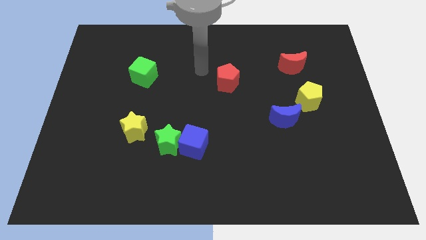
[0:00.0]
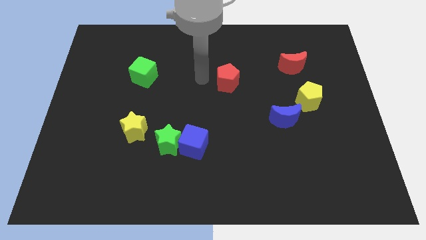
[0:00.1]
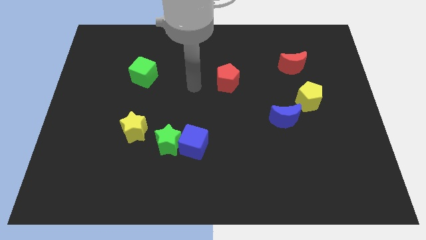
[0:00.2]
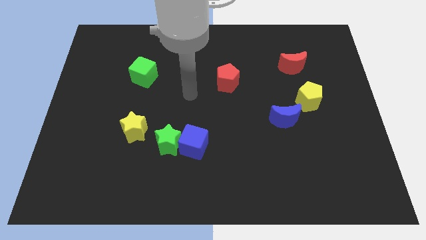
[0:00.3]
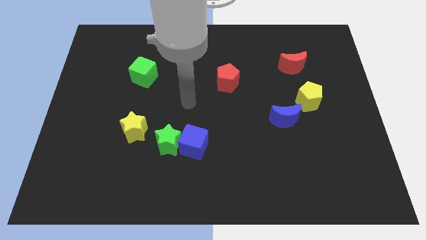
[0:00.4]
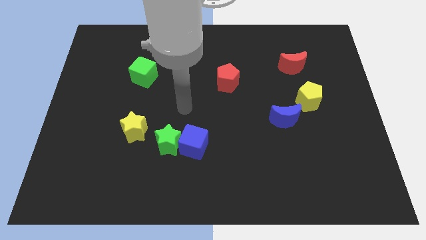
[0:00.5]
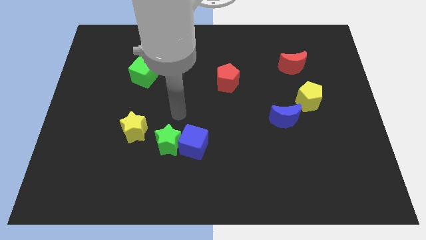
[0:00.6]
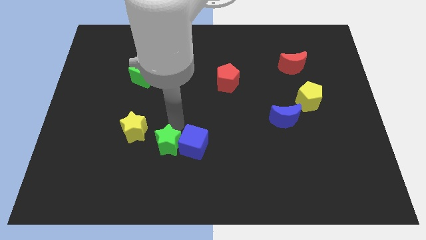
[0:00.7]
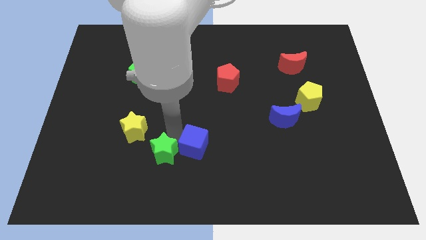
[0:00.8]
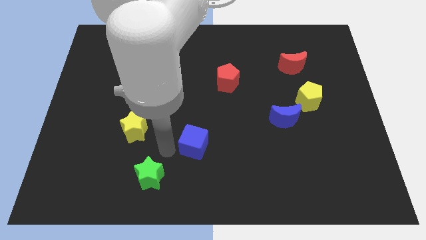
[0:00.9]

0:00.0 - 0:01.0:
separate the blue cube from the green star

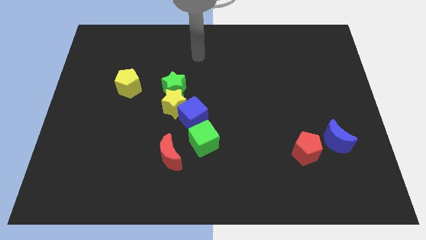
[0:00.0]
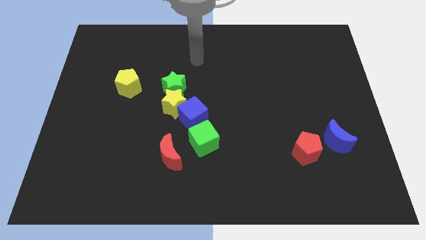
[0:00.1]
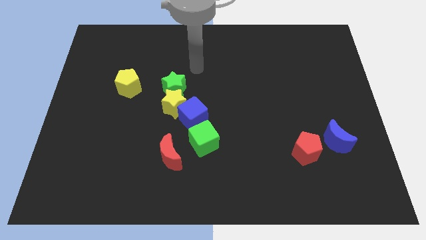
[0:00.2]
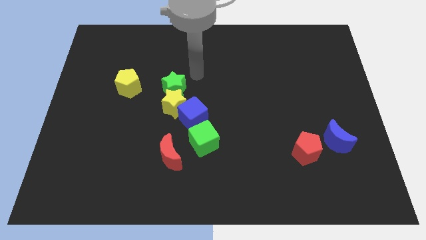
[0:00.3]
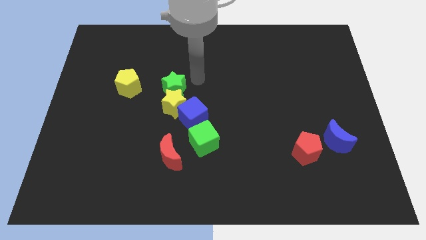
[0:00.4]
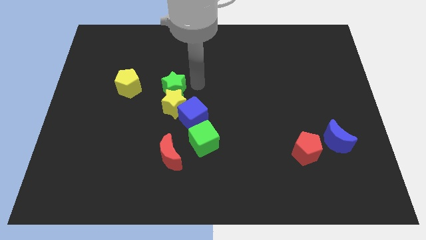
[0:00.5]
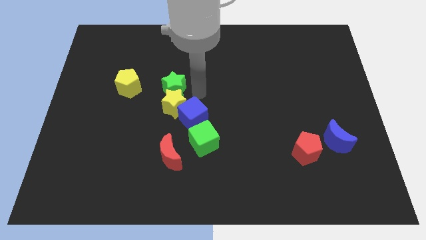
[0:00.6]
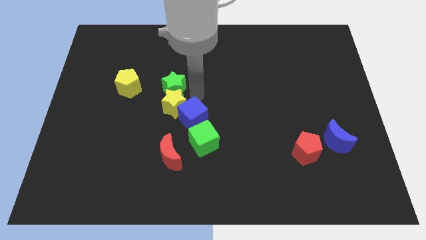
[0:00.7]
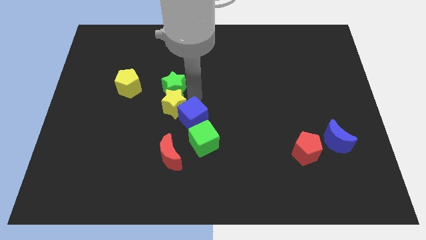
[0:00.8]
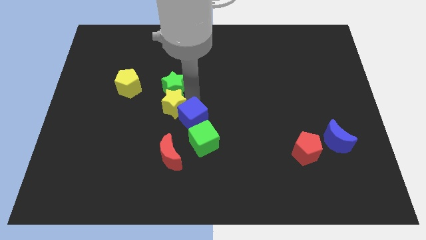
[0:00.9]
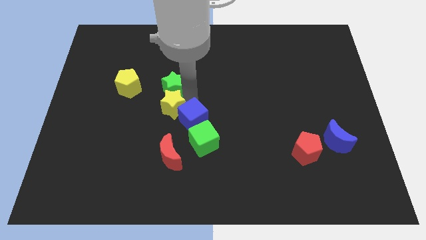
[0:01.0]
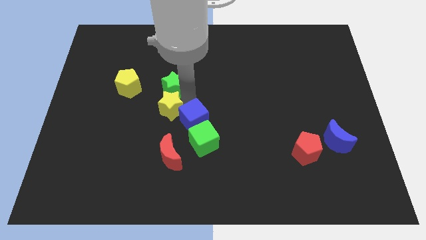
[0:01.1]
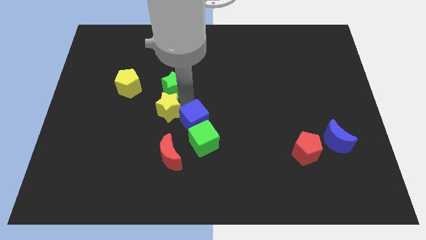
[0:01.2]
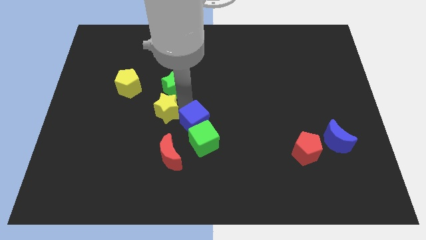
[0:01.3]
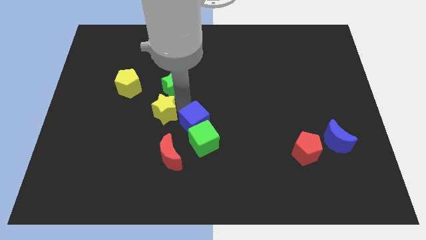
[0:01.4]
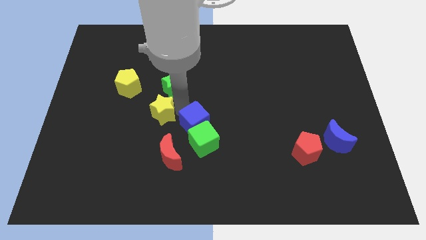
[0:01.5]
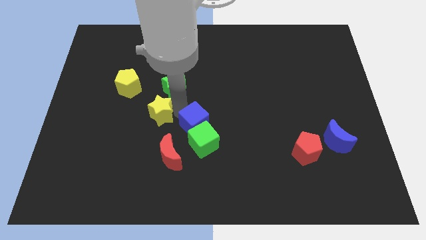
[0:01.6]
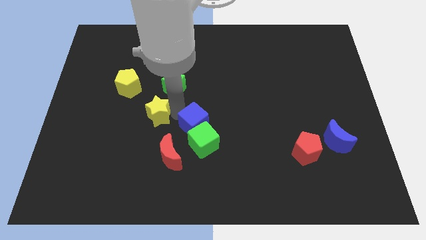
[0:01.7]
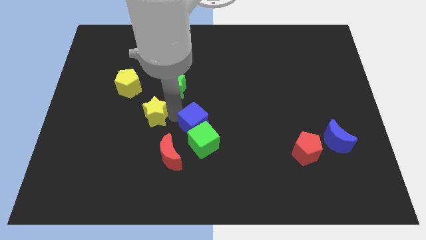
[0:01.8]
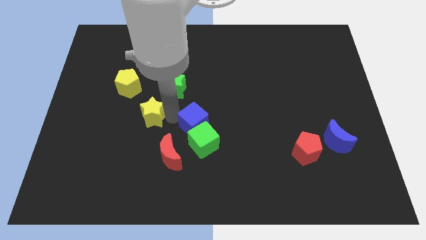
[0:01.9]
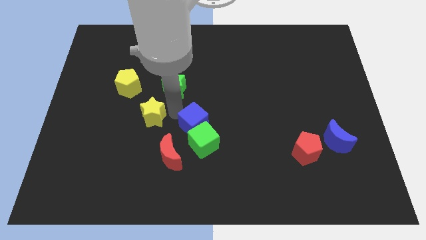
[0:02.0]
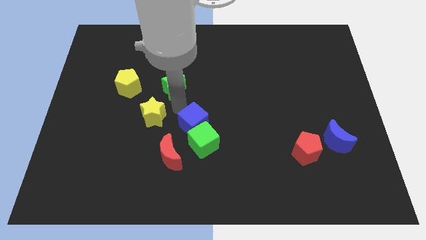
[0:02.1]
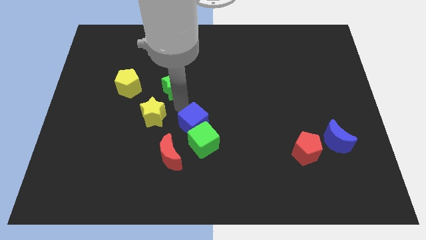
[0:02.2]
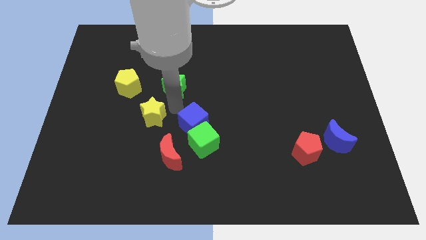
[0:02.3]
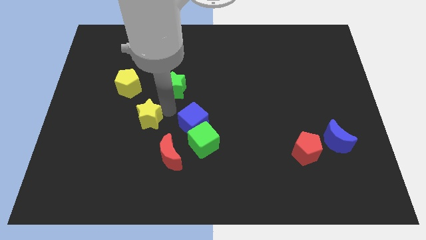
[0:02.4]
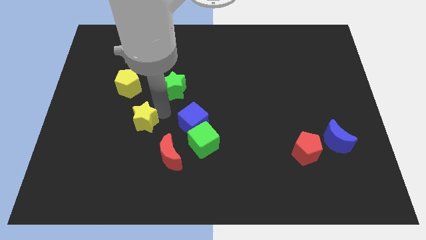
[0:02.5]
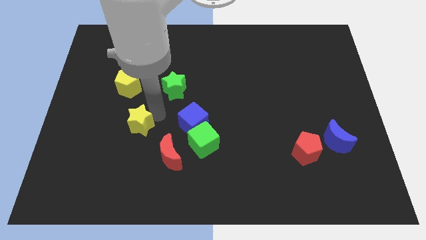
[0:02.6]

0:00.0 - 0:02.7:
separate the yellow star from the green star and blue cube

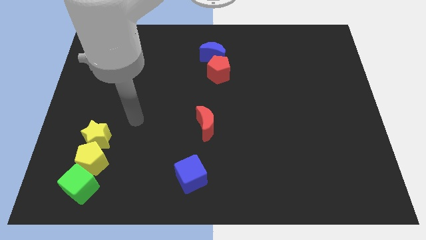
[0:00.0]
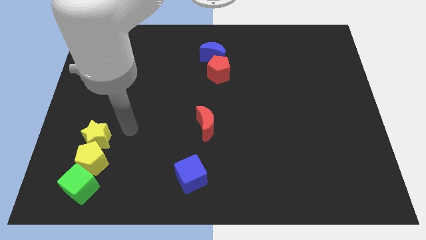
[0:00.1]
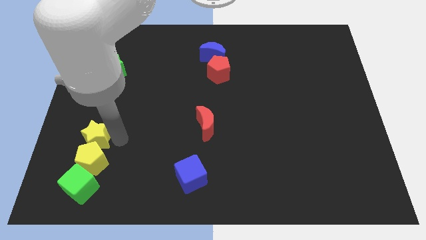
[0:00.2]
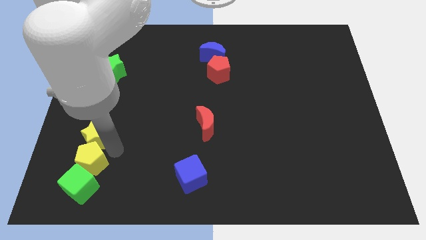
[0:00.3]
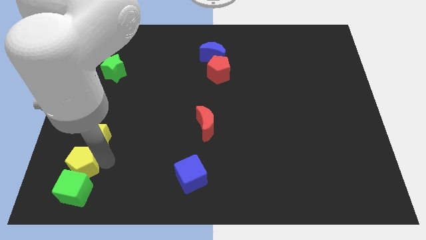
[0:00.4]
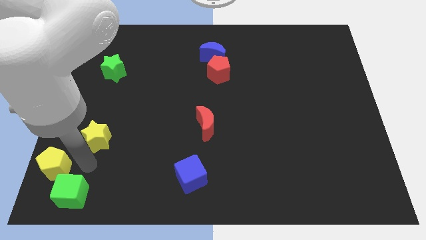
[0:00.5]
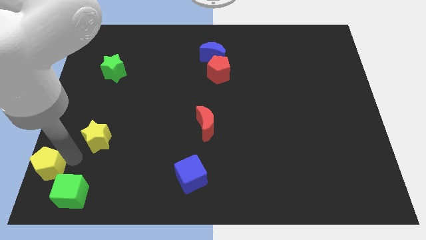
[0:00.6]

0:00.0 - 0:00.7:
move the yellow star away from the yellow pentagon

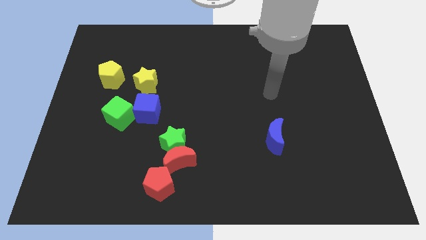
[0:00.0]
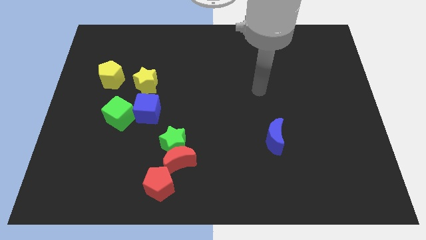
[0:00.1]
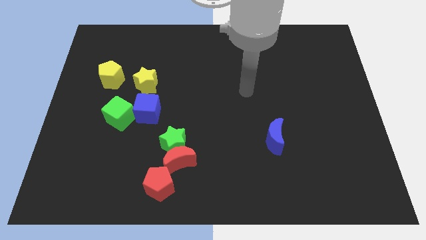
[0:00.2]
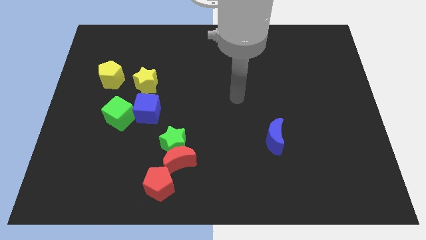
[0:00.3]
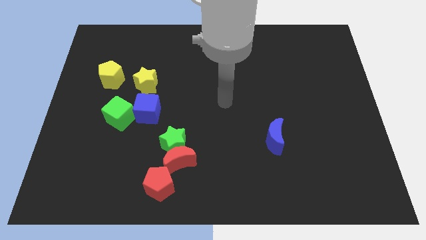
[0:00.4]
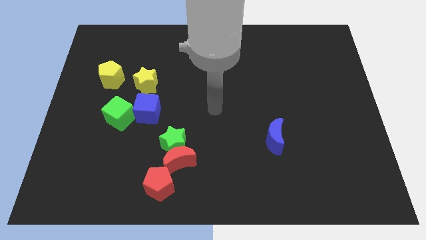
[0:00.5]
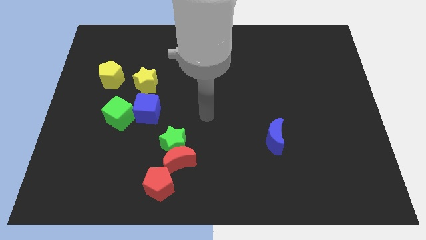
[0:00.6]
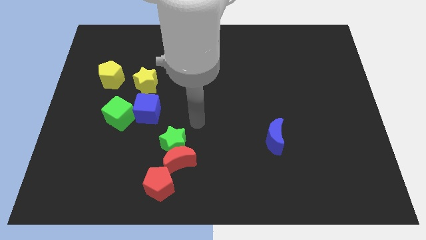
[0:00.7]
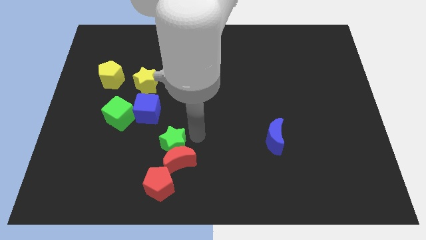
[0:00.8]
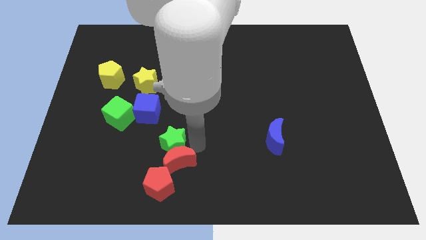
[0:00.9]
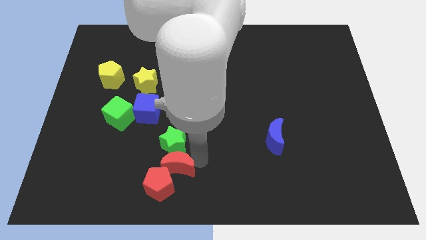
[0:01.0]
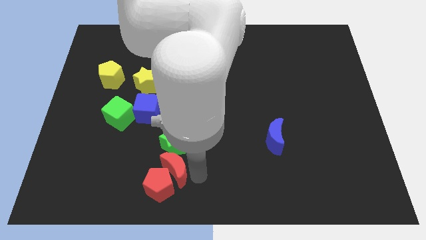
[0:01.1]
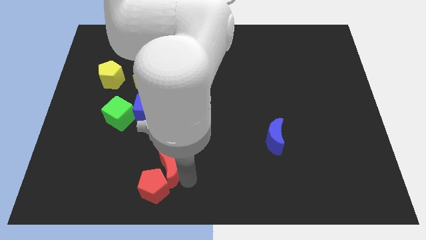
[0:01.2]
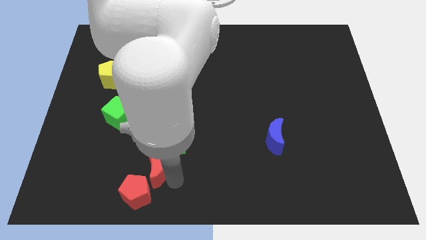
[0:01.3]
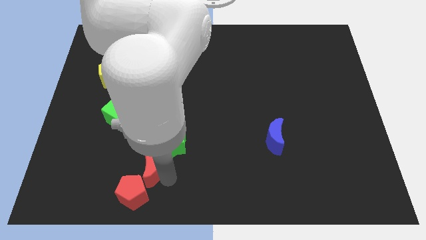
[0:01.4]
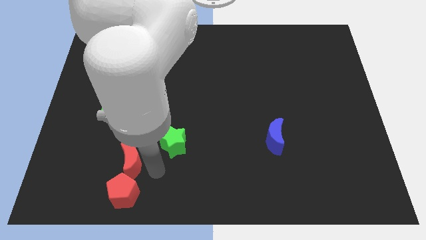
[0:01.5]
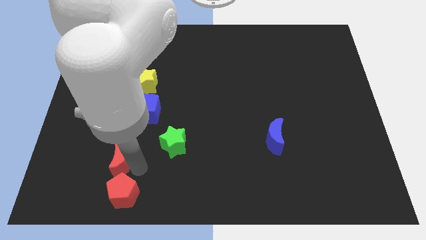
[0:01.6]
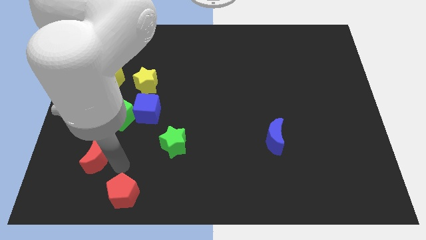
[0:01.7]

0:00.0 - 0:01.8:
pull the red moon apart from the green star and red pentagon

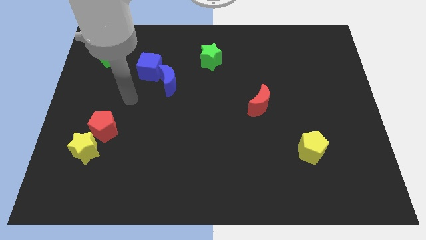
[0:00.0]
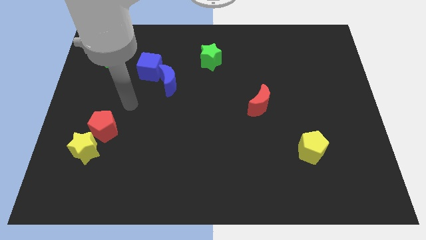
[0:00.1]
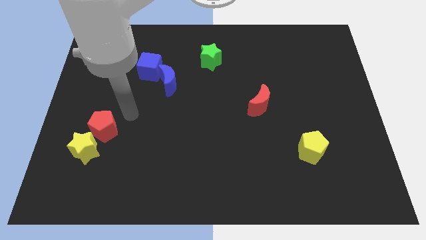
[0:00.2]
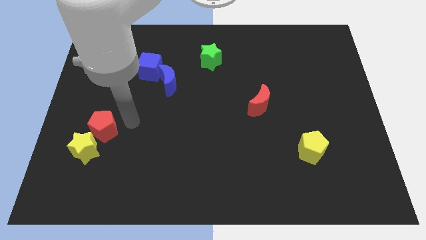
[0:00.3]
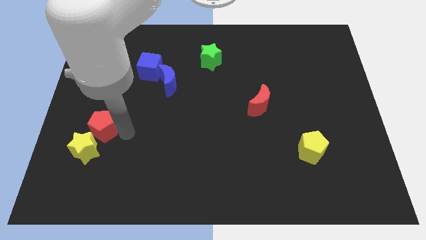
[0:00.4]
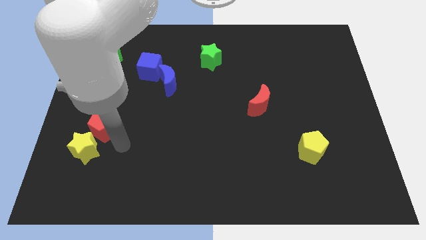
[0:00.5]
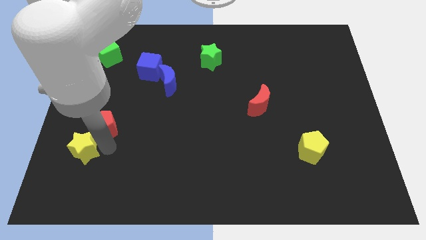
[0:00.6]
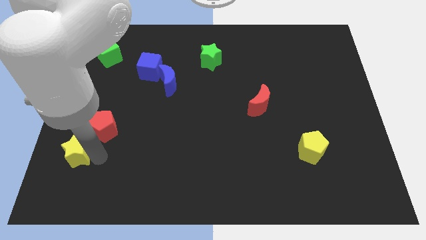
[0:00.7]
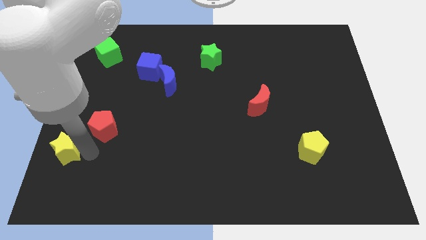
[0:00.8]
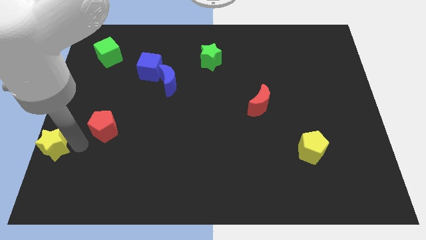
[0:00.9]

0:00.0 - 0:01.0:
pull the red pentagon apart from the yellow star

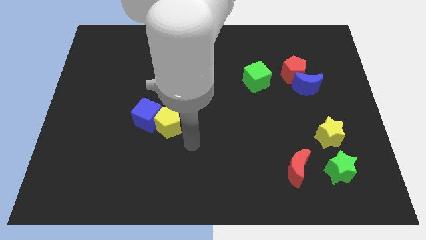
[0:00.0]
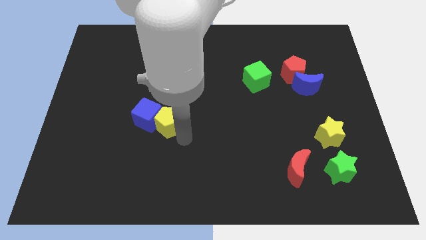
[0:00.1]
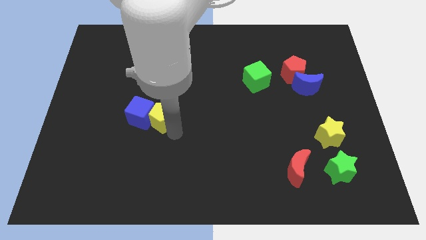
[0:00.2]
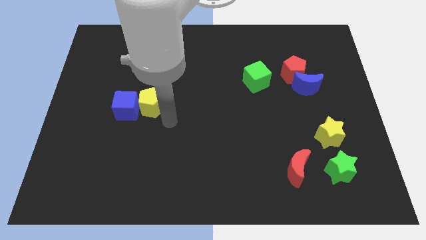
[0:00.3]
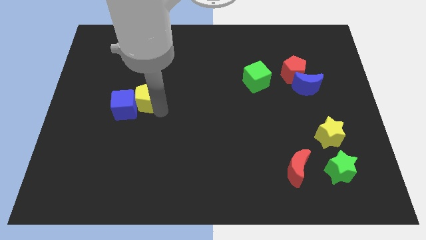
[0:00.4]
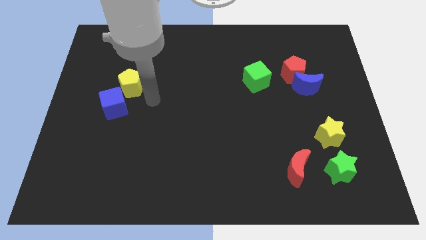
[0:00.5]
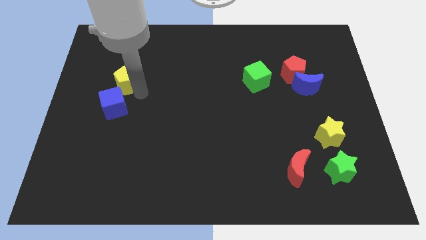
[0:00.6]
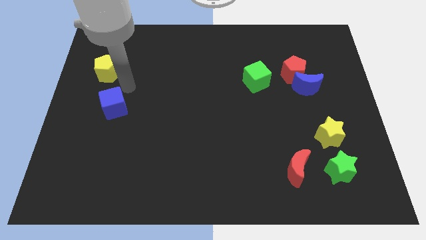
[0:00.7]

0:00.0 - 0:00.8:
separate the blue cube from the yellow pentagon

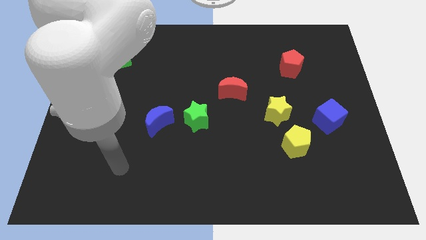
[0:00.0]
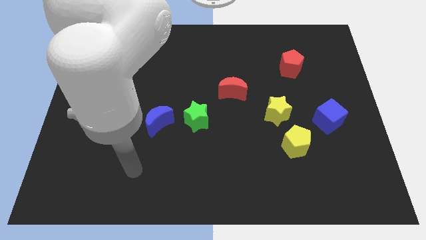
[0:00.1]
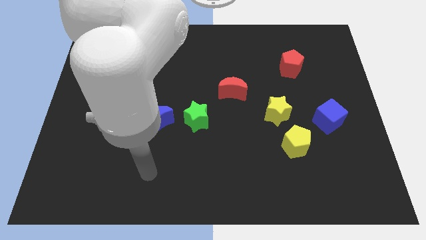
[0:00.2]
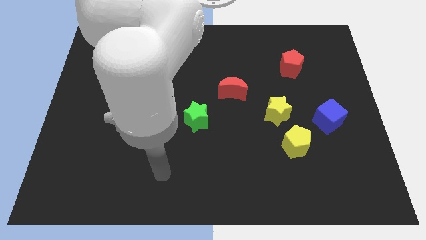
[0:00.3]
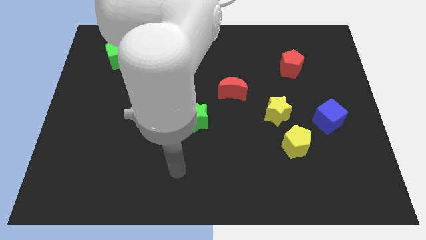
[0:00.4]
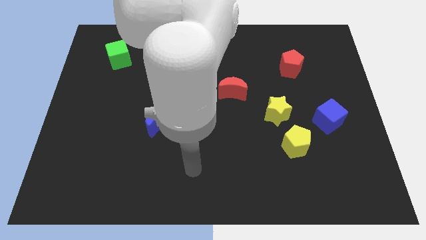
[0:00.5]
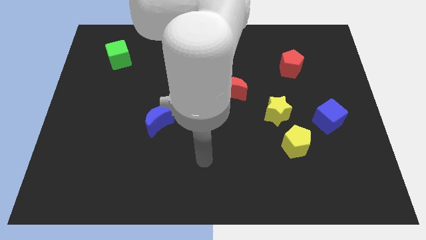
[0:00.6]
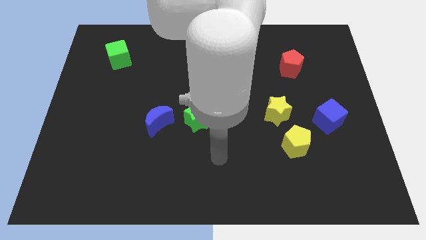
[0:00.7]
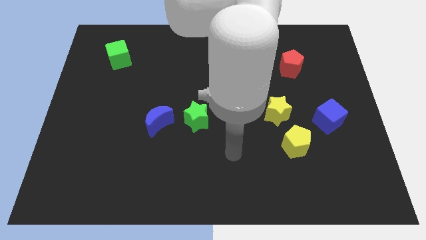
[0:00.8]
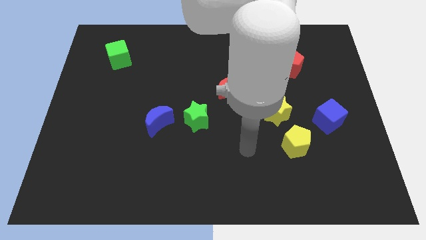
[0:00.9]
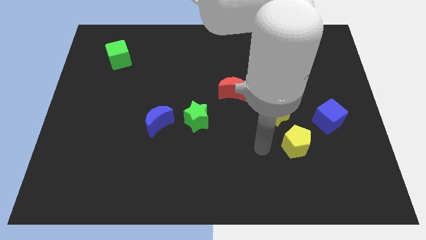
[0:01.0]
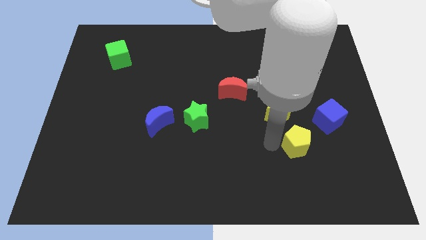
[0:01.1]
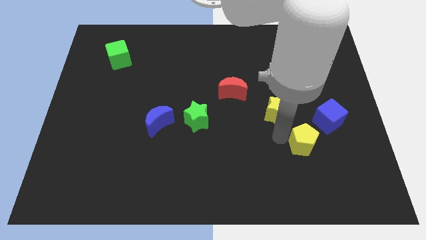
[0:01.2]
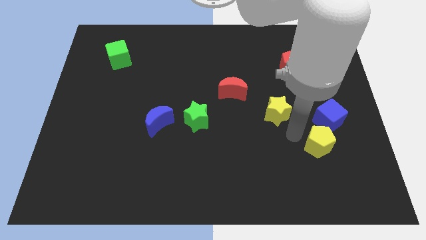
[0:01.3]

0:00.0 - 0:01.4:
pull the yellow star apart from the yellow pentagon
